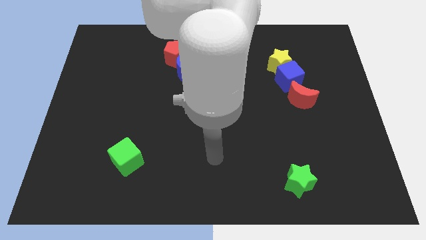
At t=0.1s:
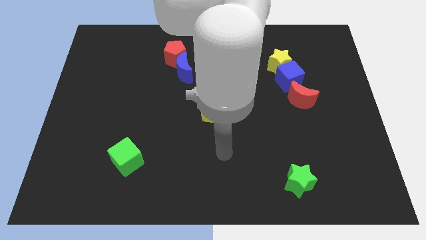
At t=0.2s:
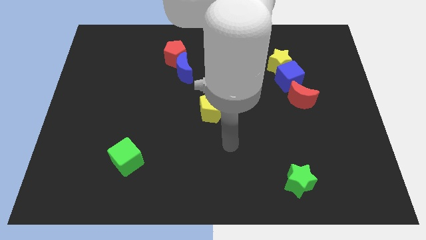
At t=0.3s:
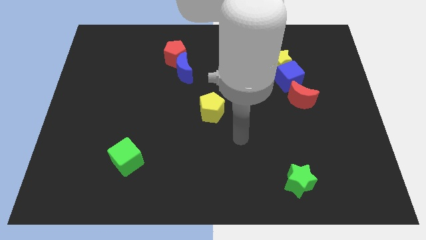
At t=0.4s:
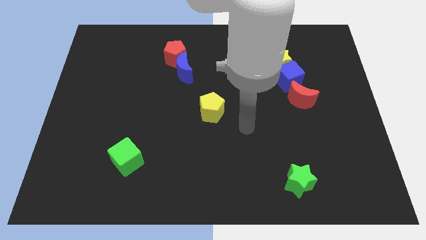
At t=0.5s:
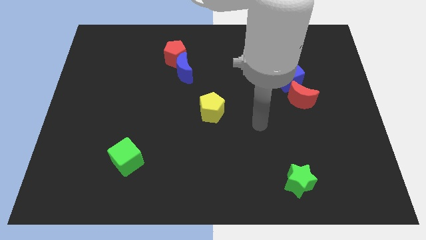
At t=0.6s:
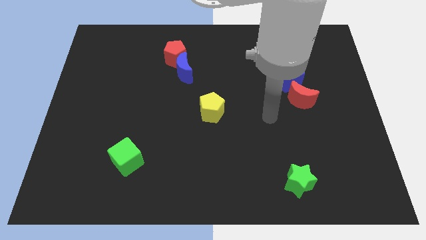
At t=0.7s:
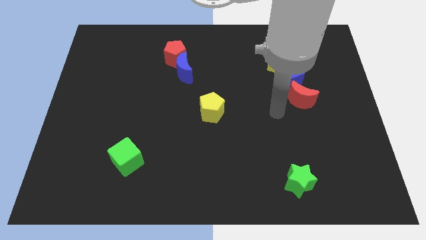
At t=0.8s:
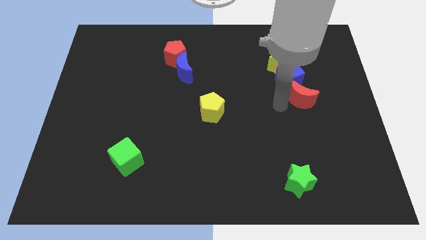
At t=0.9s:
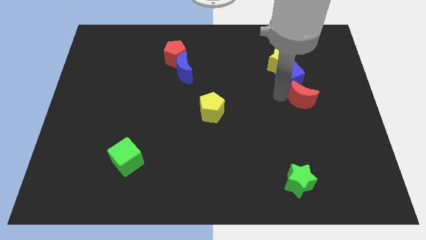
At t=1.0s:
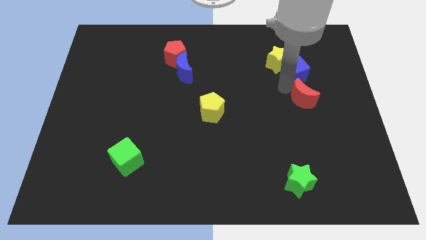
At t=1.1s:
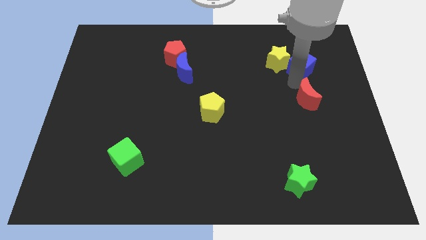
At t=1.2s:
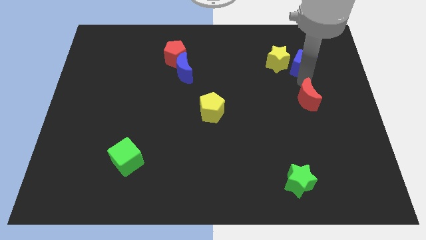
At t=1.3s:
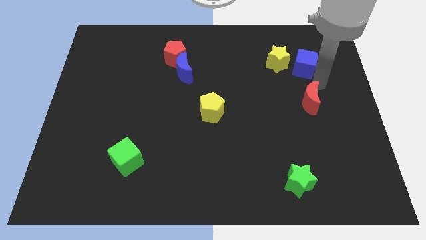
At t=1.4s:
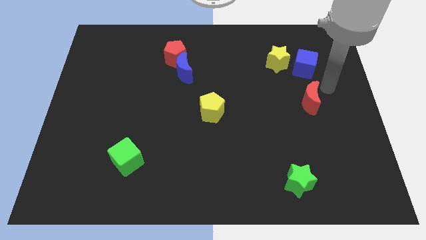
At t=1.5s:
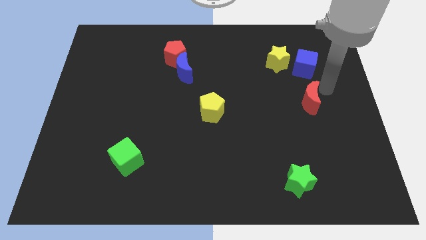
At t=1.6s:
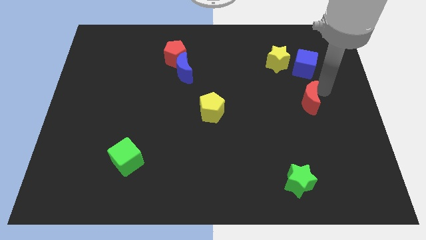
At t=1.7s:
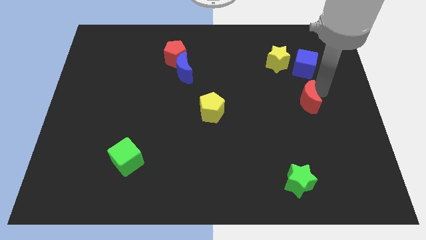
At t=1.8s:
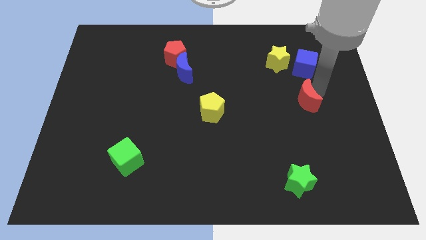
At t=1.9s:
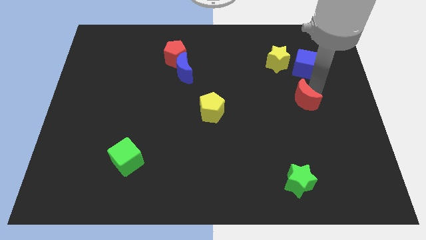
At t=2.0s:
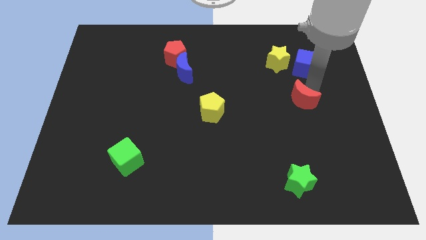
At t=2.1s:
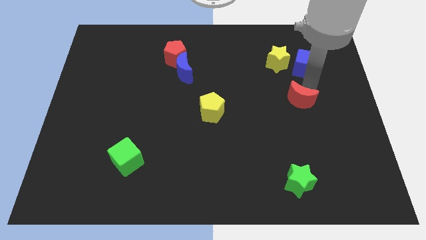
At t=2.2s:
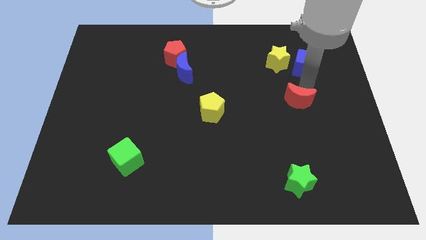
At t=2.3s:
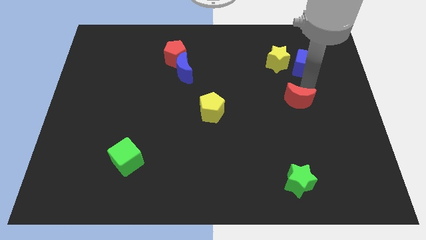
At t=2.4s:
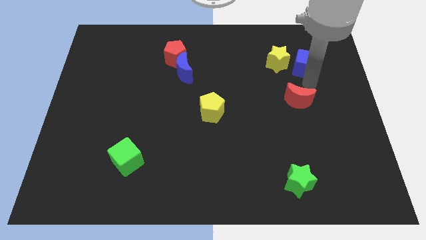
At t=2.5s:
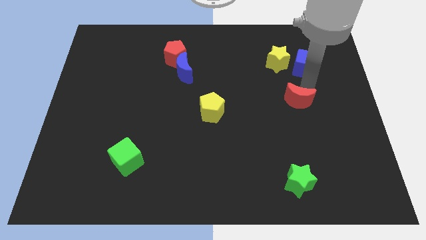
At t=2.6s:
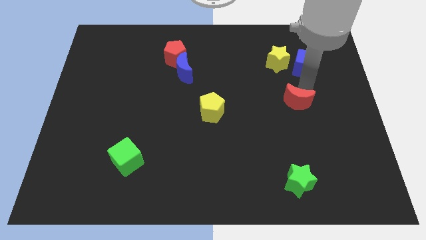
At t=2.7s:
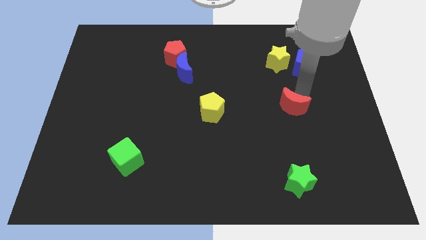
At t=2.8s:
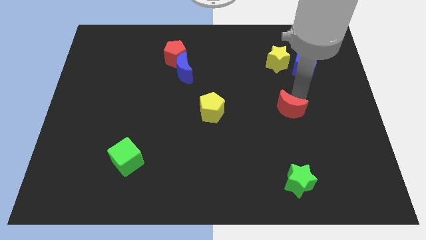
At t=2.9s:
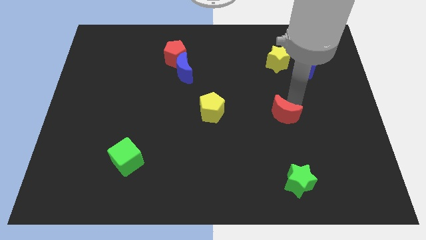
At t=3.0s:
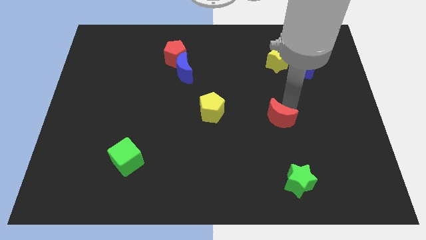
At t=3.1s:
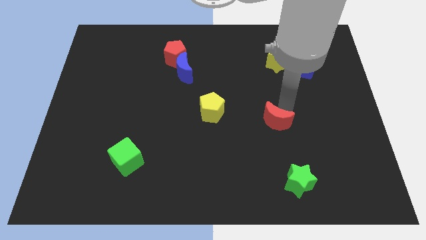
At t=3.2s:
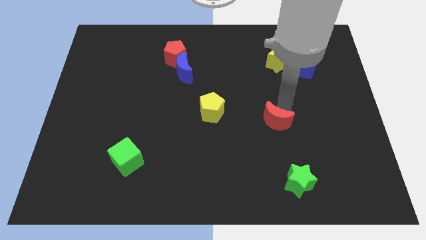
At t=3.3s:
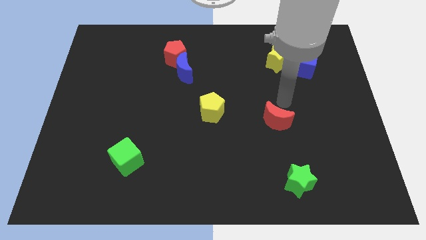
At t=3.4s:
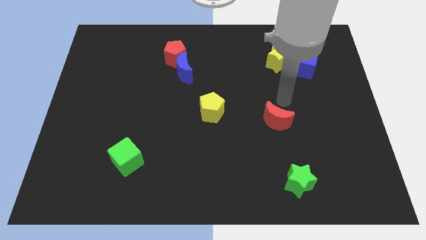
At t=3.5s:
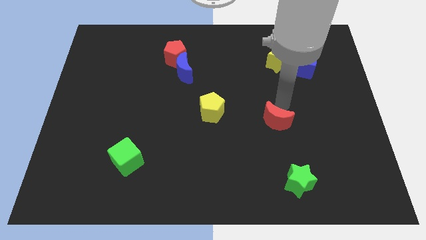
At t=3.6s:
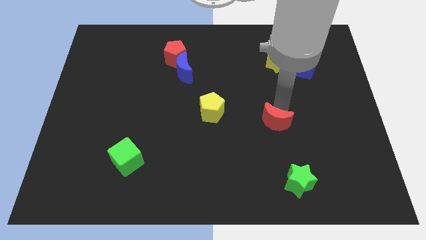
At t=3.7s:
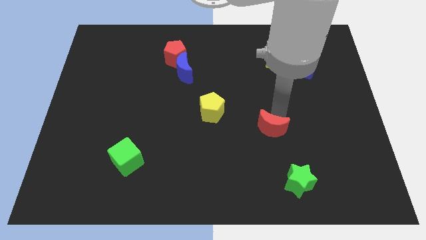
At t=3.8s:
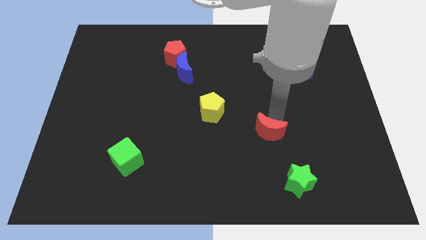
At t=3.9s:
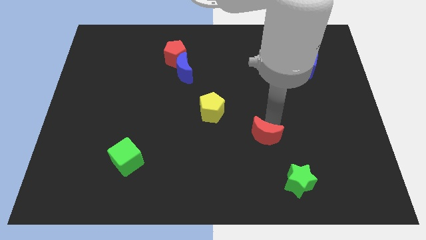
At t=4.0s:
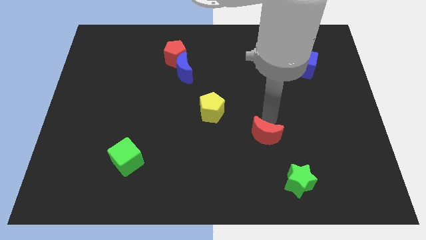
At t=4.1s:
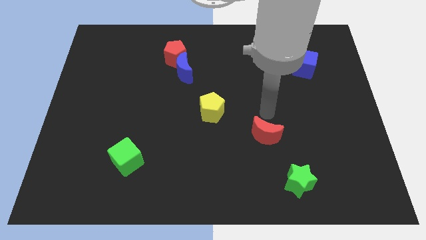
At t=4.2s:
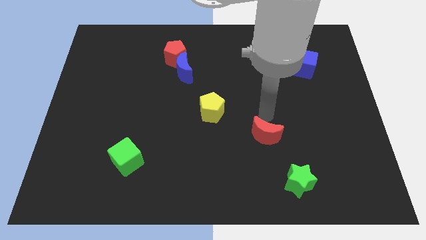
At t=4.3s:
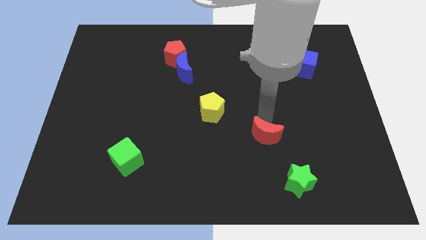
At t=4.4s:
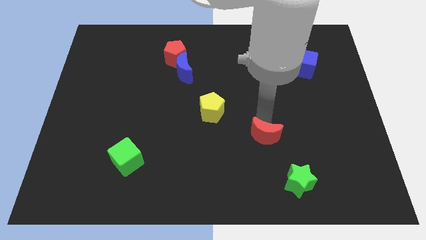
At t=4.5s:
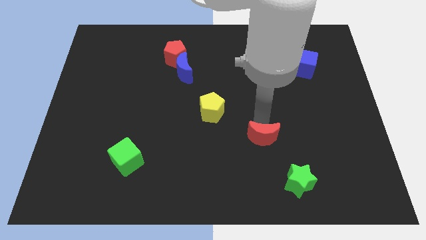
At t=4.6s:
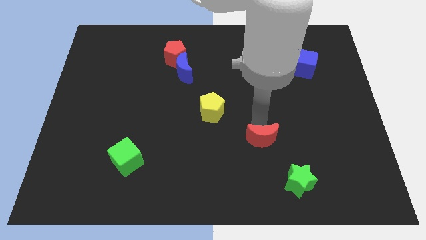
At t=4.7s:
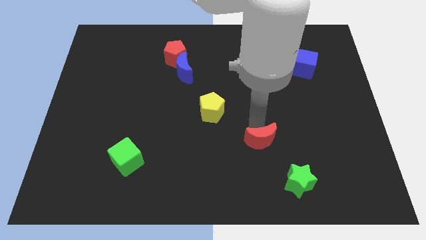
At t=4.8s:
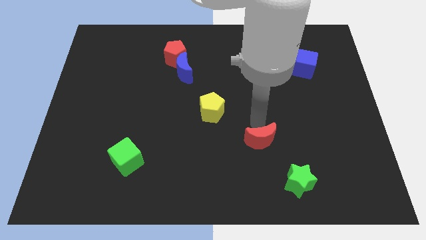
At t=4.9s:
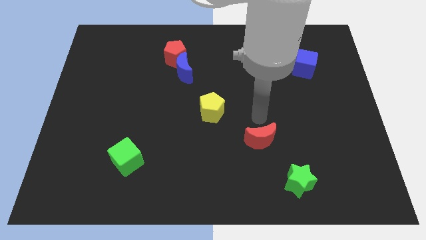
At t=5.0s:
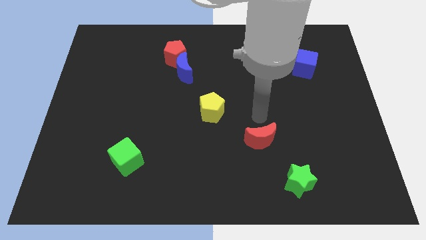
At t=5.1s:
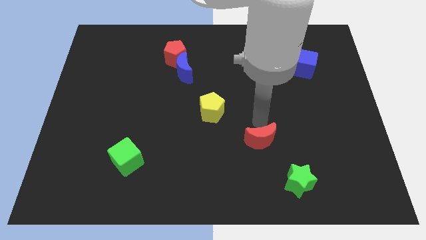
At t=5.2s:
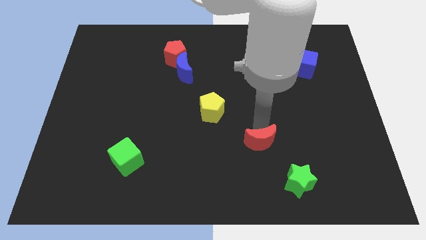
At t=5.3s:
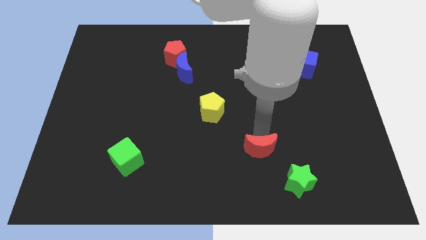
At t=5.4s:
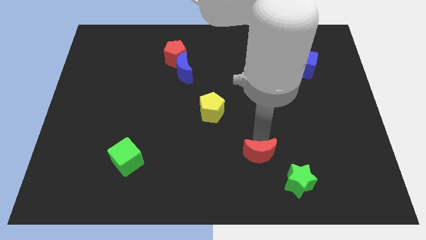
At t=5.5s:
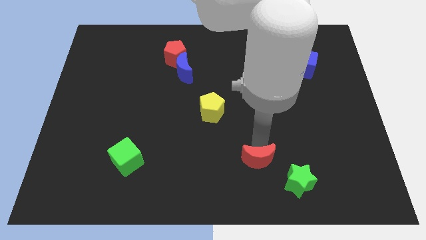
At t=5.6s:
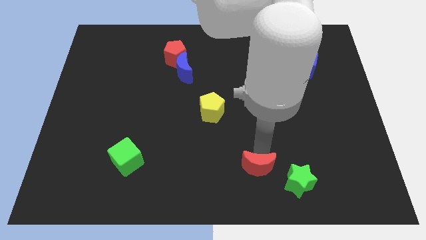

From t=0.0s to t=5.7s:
push the red moon to the bottom

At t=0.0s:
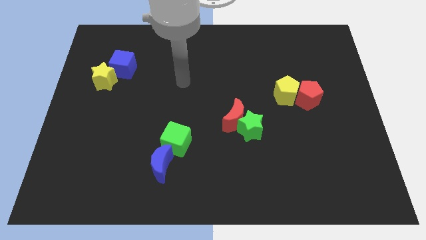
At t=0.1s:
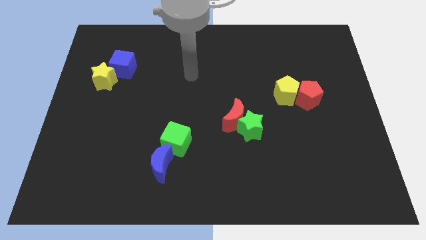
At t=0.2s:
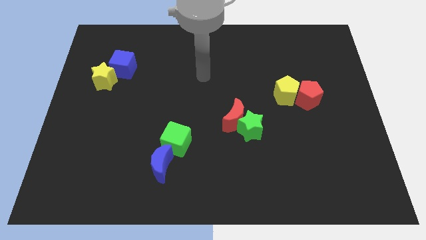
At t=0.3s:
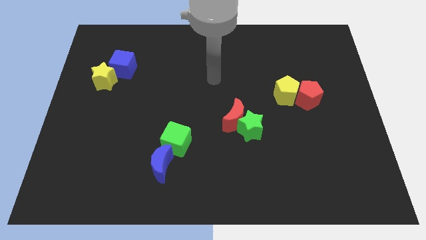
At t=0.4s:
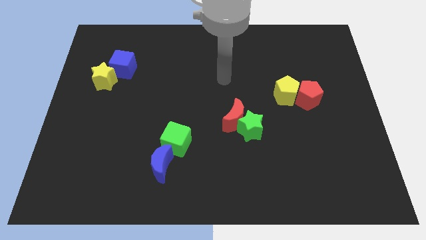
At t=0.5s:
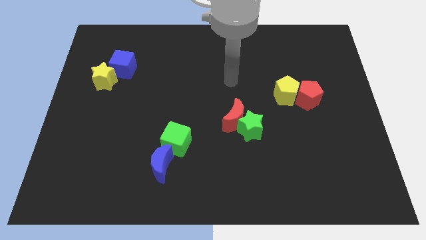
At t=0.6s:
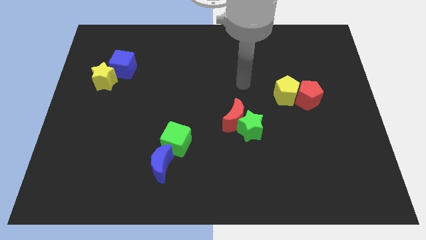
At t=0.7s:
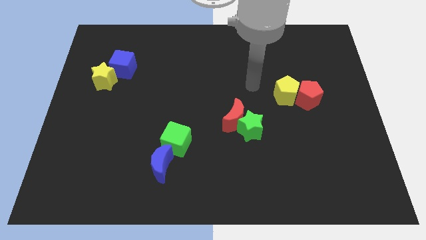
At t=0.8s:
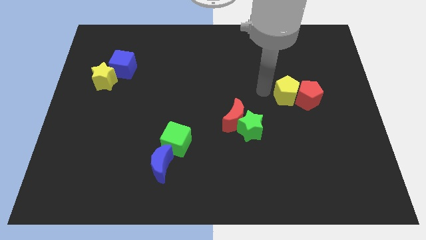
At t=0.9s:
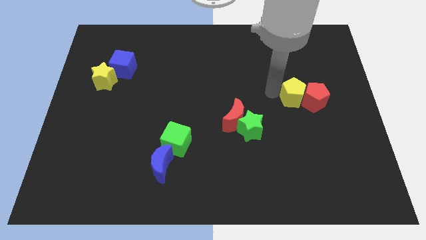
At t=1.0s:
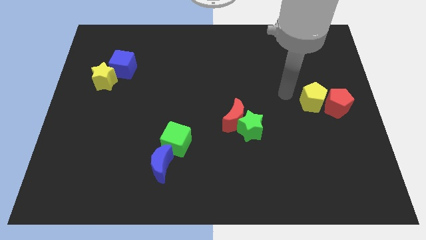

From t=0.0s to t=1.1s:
move the red pentagon to the center right
